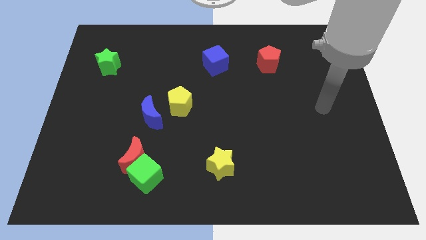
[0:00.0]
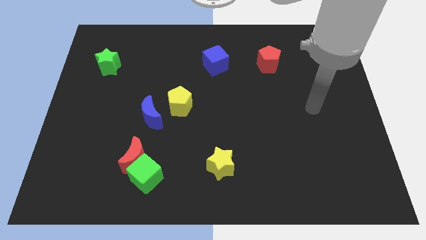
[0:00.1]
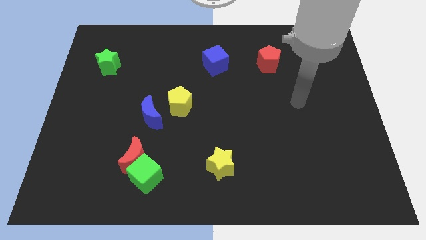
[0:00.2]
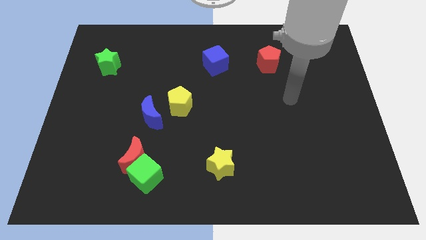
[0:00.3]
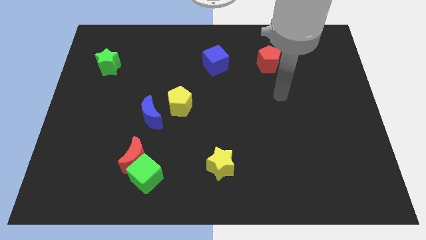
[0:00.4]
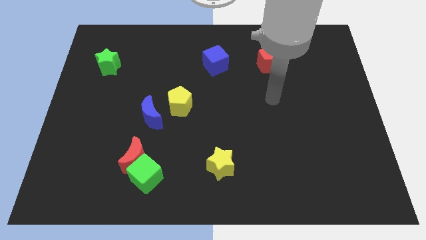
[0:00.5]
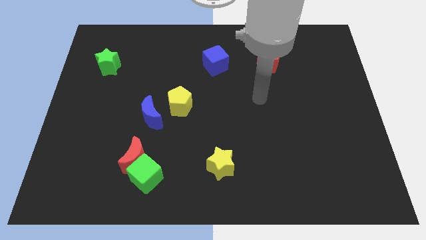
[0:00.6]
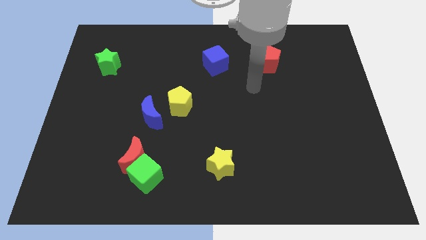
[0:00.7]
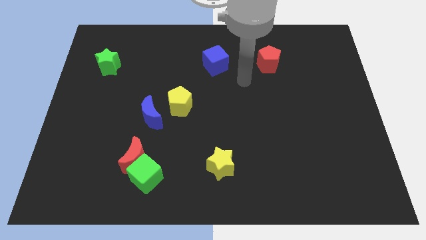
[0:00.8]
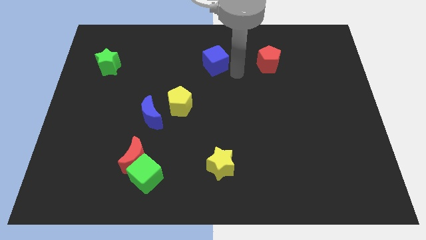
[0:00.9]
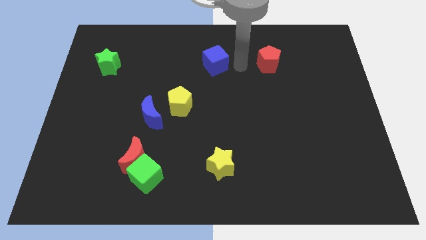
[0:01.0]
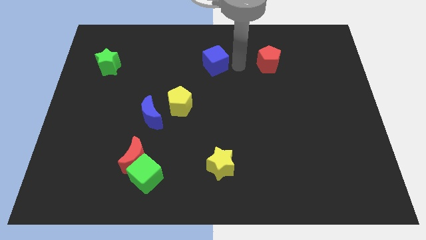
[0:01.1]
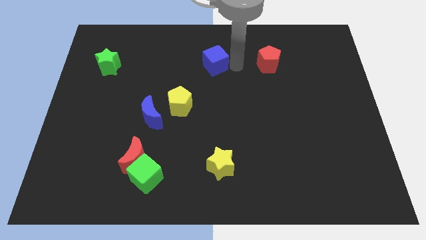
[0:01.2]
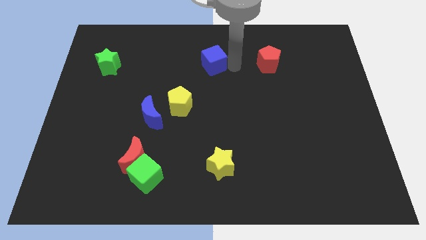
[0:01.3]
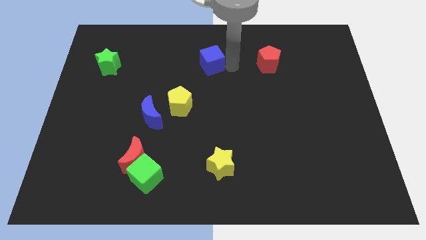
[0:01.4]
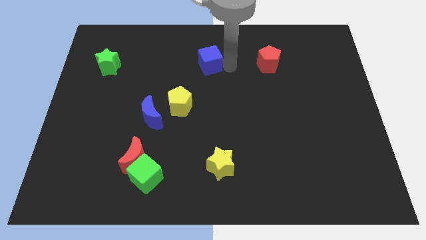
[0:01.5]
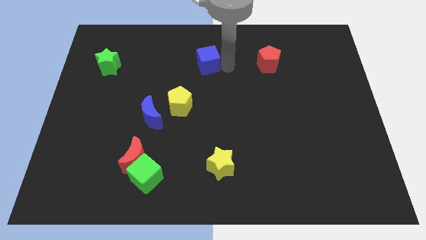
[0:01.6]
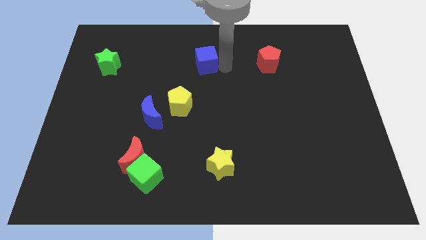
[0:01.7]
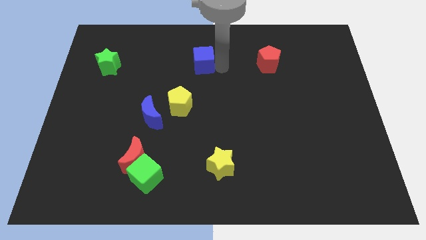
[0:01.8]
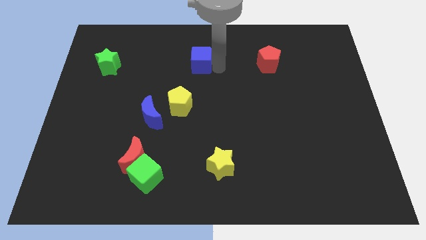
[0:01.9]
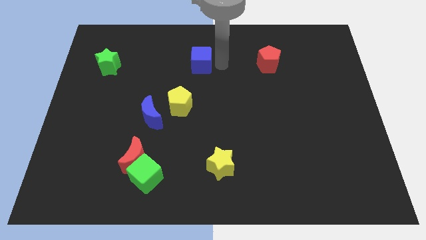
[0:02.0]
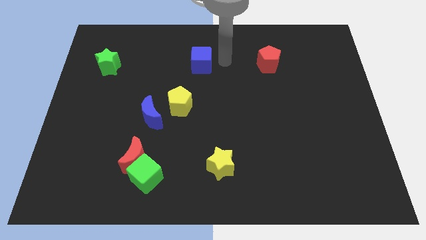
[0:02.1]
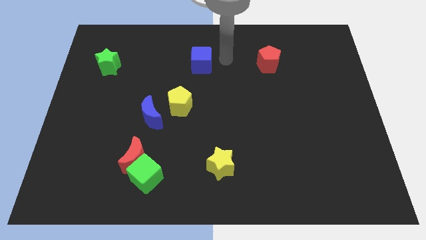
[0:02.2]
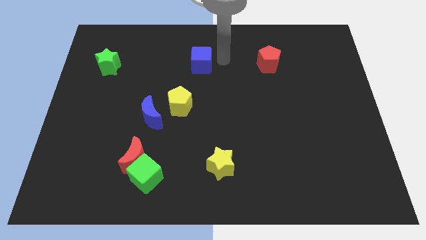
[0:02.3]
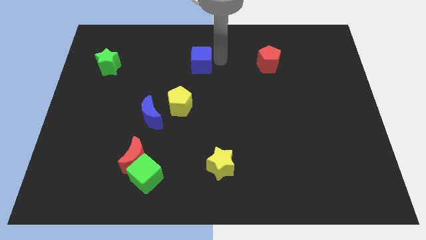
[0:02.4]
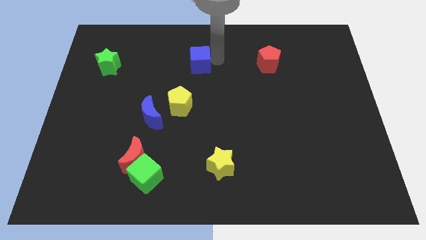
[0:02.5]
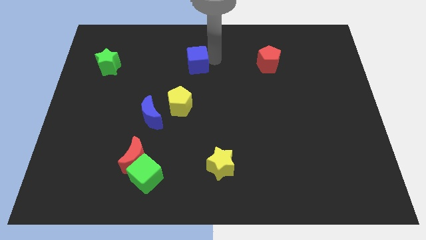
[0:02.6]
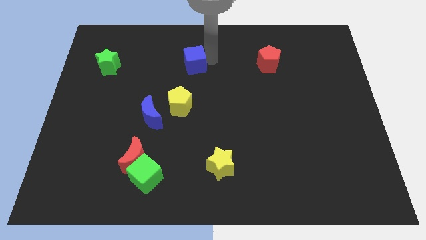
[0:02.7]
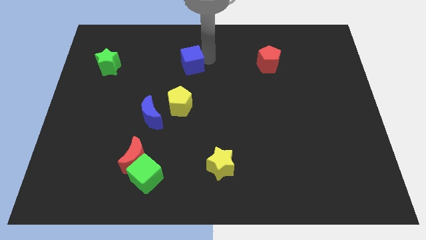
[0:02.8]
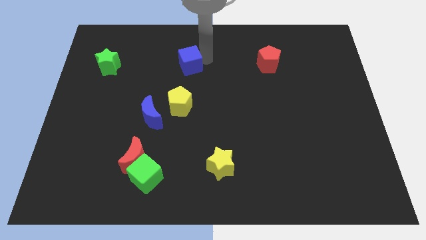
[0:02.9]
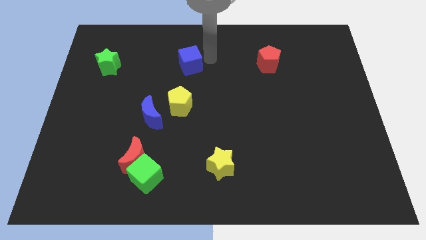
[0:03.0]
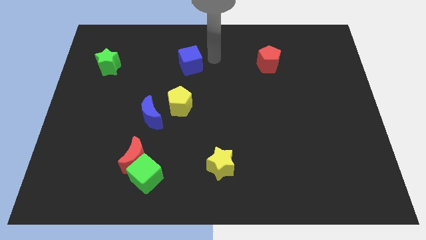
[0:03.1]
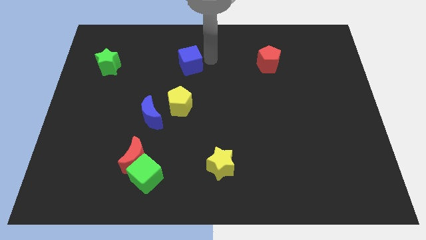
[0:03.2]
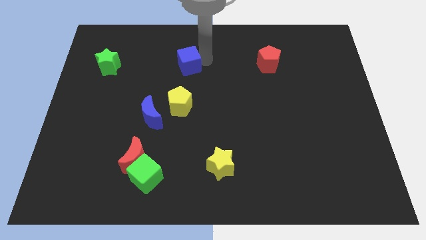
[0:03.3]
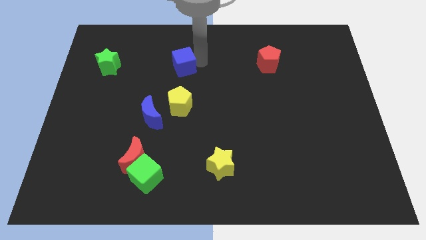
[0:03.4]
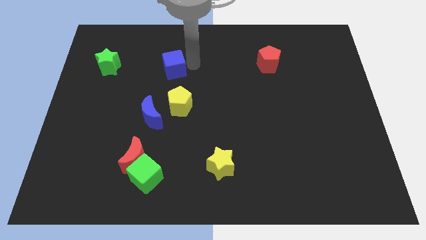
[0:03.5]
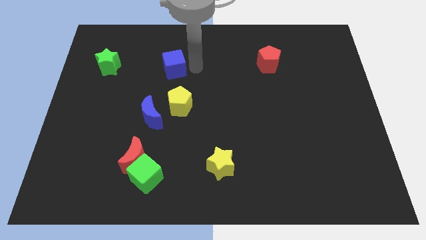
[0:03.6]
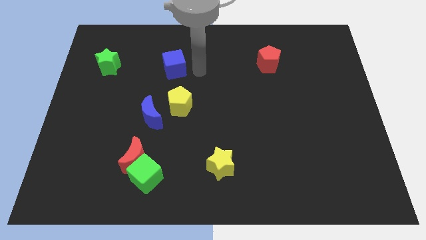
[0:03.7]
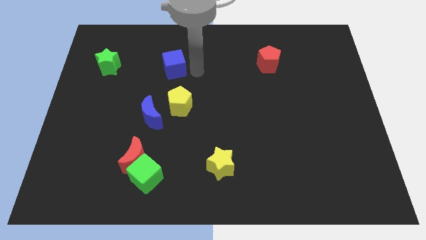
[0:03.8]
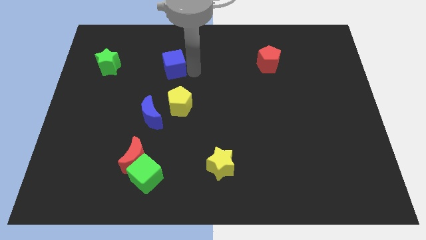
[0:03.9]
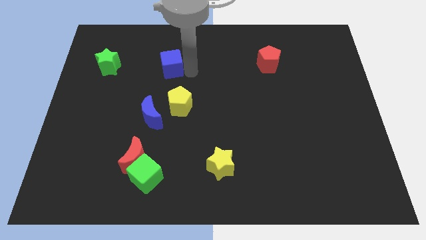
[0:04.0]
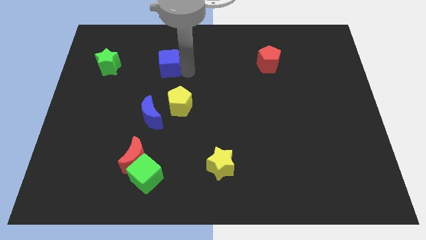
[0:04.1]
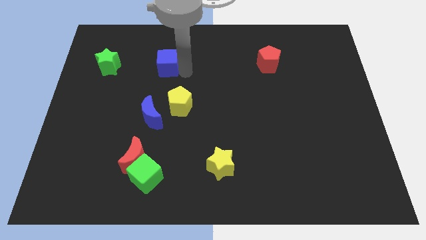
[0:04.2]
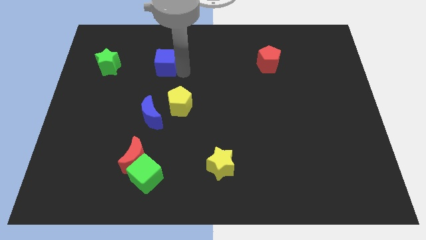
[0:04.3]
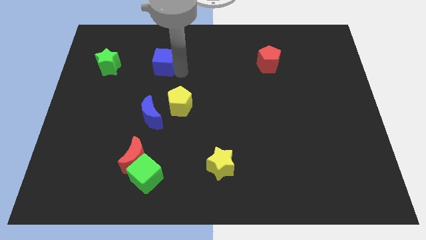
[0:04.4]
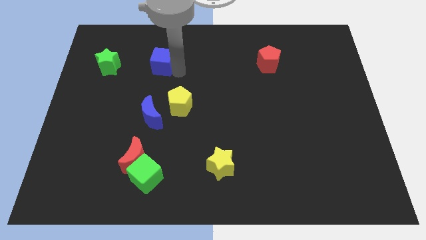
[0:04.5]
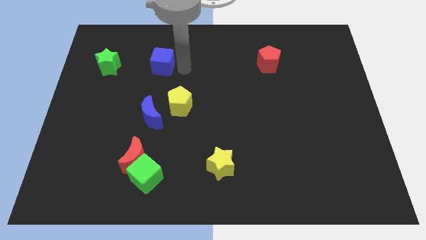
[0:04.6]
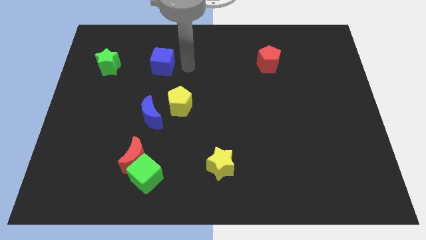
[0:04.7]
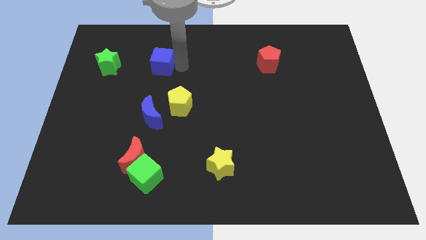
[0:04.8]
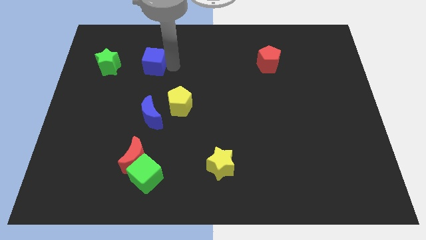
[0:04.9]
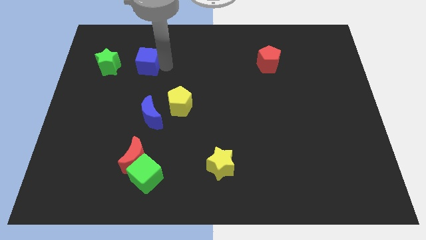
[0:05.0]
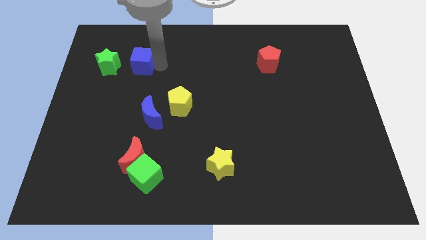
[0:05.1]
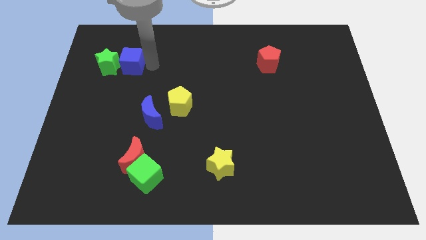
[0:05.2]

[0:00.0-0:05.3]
push the blue cube next to the green star

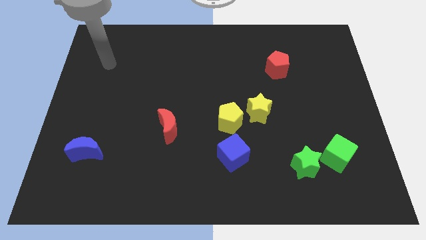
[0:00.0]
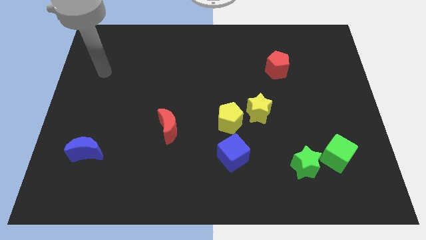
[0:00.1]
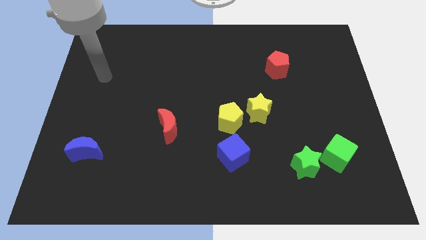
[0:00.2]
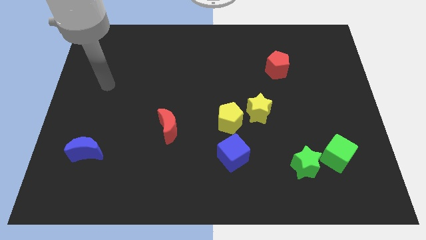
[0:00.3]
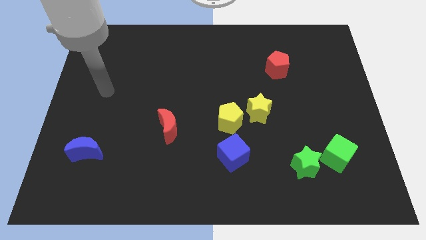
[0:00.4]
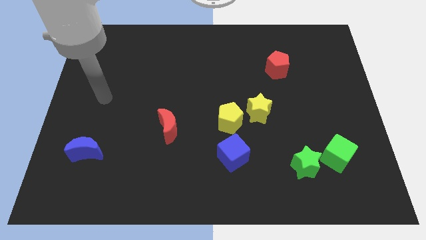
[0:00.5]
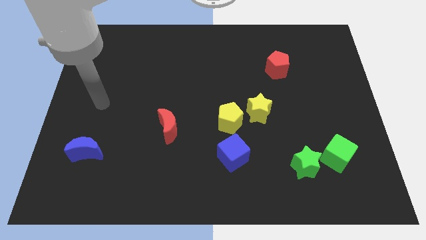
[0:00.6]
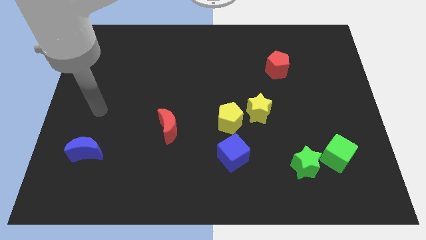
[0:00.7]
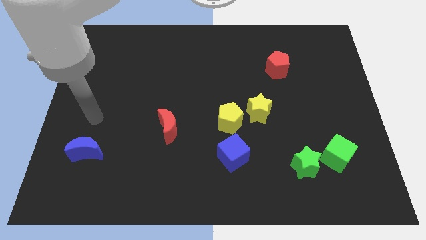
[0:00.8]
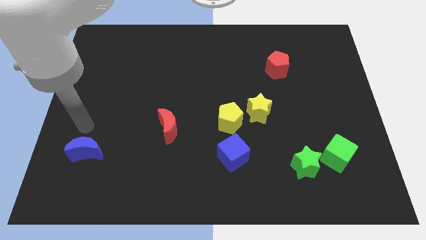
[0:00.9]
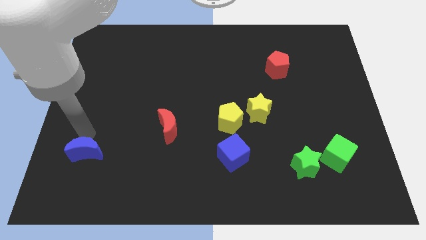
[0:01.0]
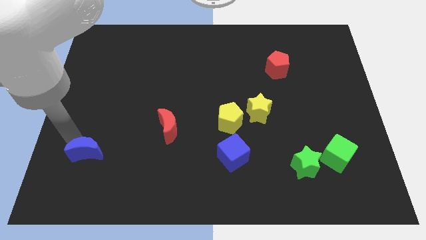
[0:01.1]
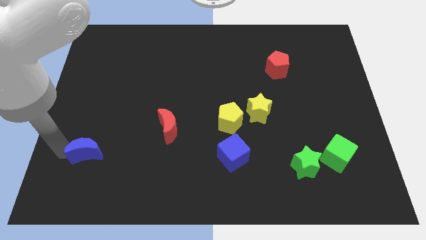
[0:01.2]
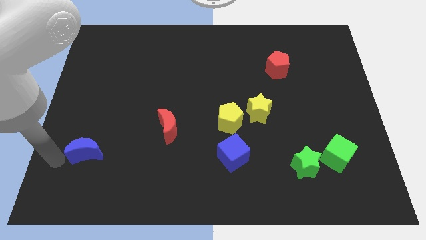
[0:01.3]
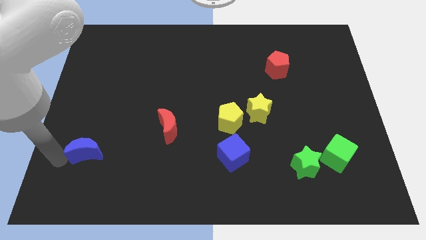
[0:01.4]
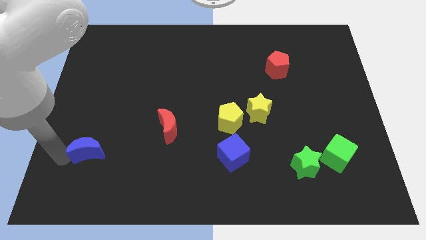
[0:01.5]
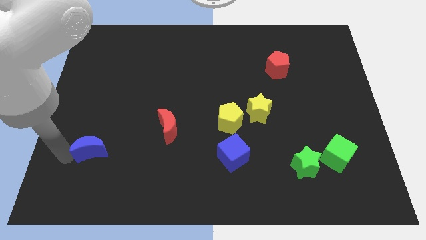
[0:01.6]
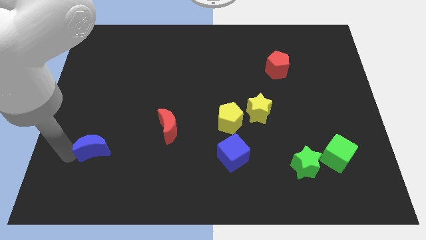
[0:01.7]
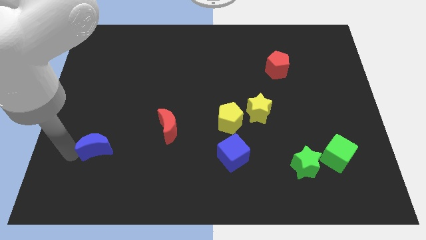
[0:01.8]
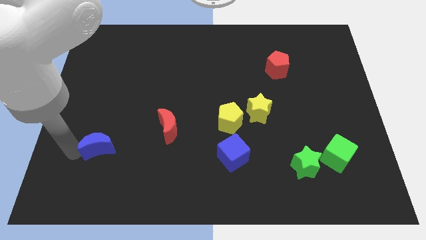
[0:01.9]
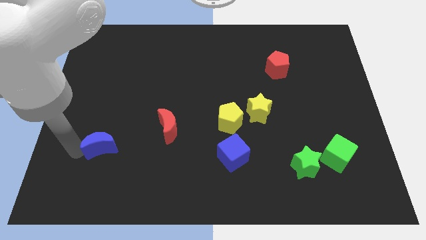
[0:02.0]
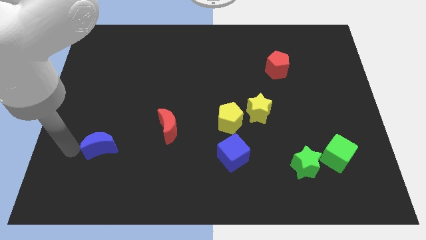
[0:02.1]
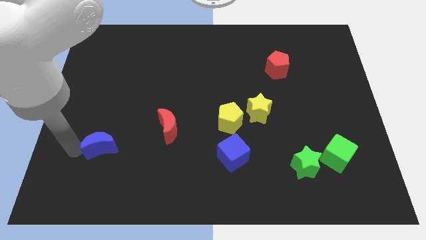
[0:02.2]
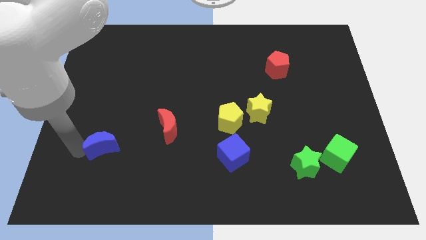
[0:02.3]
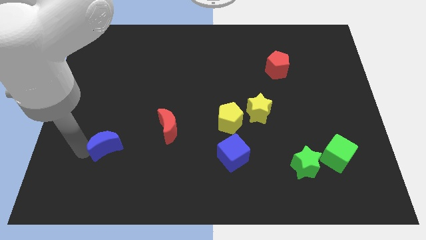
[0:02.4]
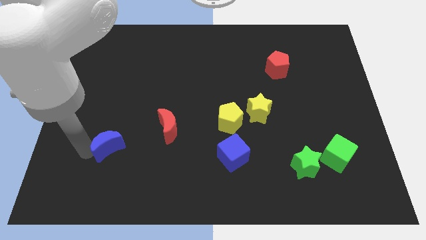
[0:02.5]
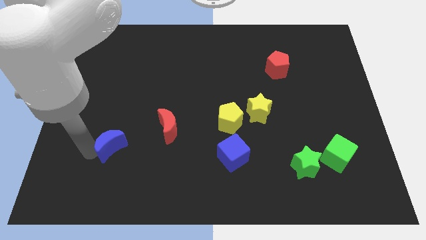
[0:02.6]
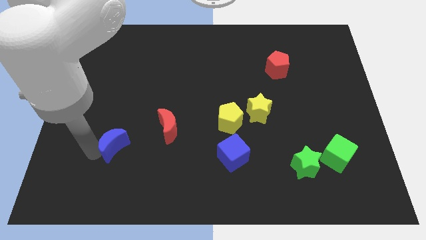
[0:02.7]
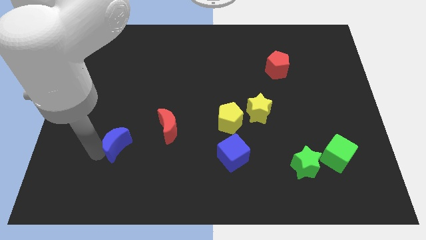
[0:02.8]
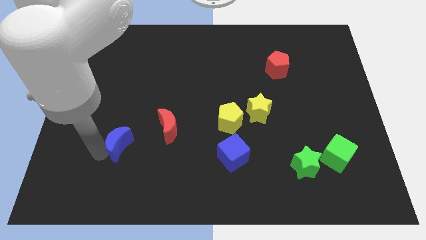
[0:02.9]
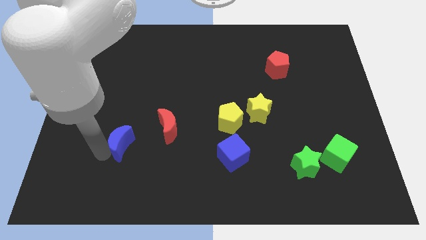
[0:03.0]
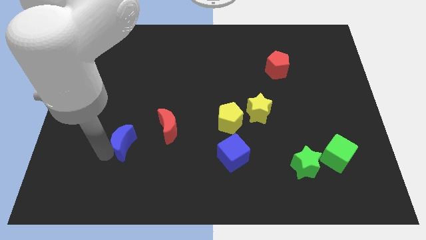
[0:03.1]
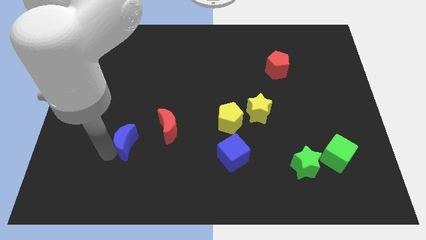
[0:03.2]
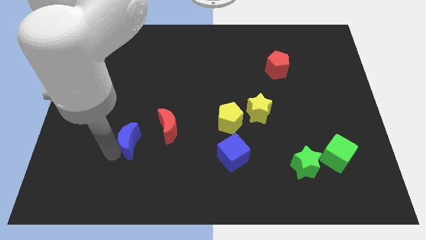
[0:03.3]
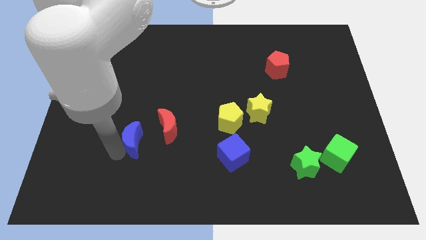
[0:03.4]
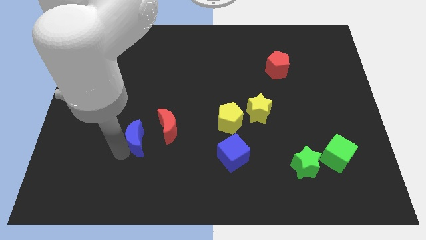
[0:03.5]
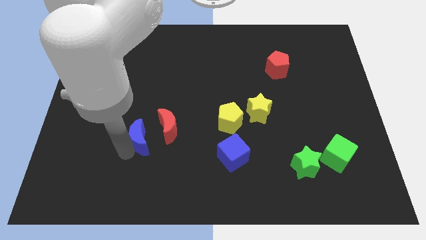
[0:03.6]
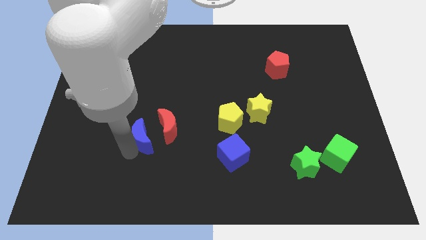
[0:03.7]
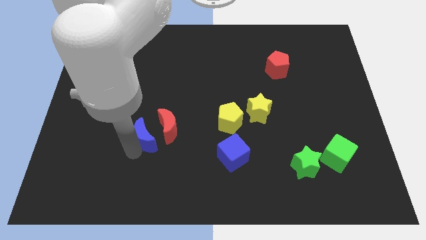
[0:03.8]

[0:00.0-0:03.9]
slide the blue moon to the red moon
